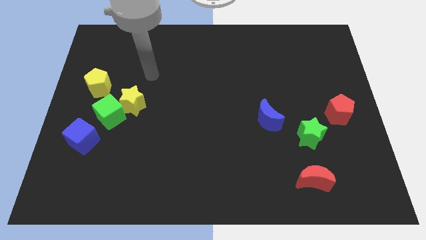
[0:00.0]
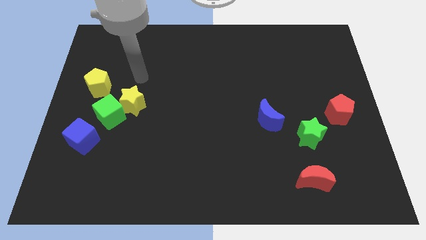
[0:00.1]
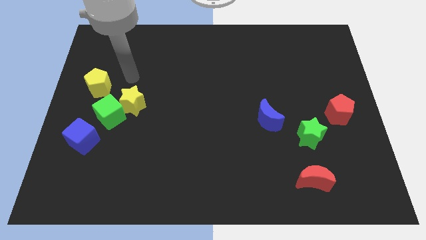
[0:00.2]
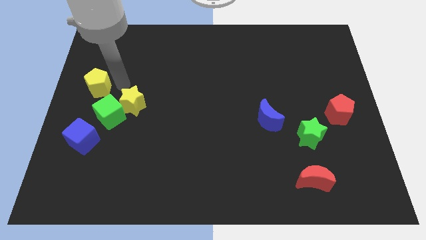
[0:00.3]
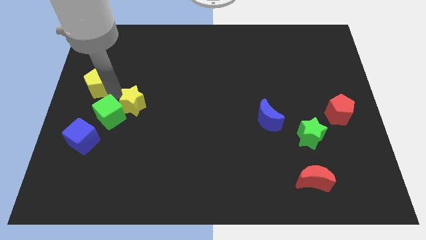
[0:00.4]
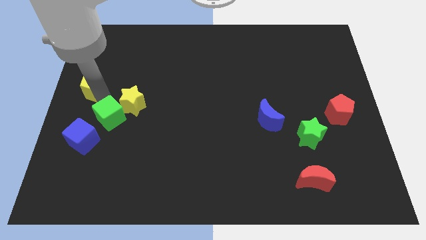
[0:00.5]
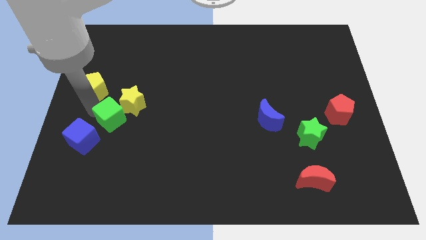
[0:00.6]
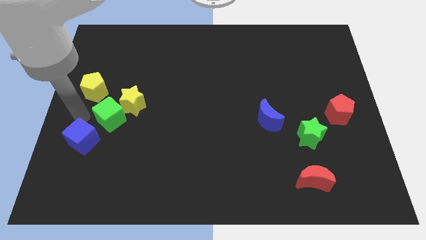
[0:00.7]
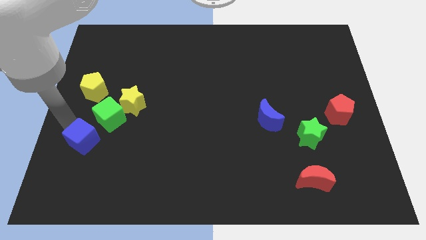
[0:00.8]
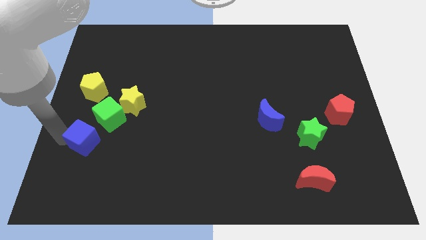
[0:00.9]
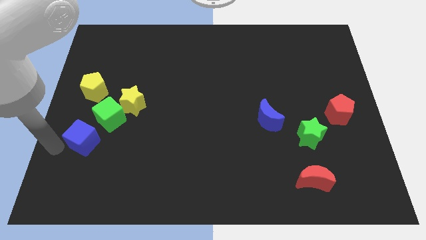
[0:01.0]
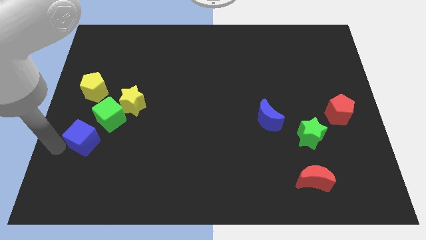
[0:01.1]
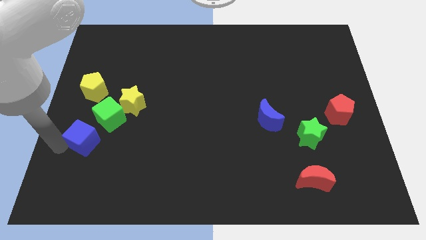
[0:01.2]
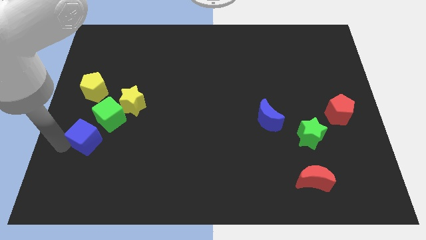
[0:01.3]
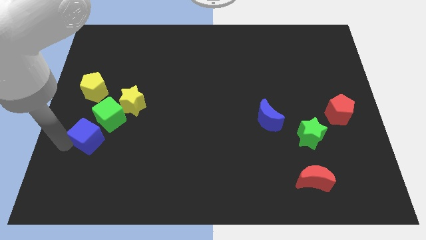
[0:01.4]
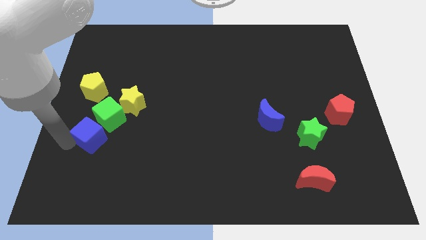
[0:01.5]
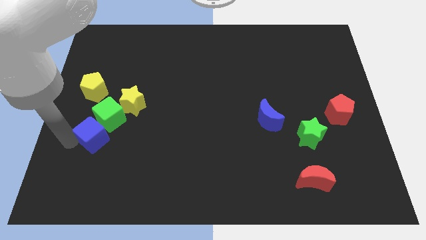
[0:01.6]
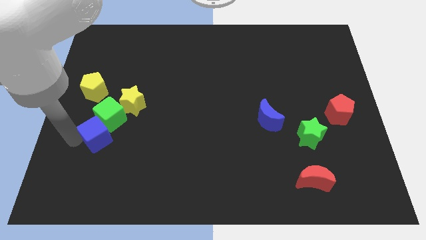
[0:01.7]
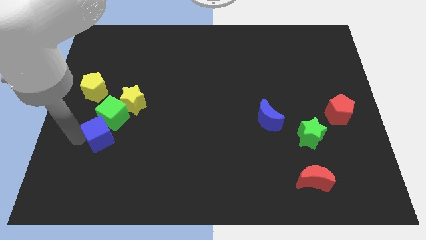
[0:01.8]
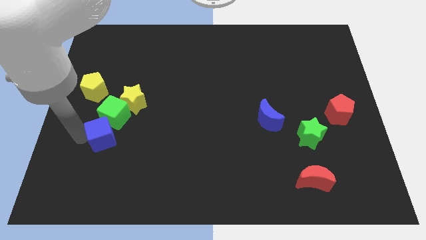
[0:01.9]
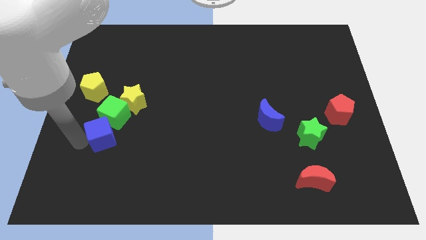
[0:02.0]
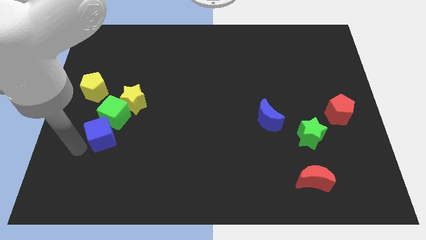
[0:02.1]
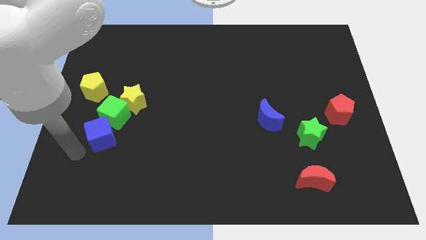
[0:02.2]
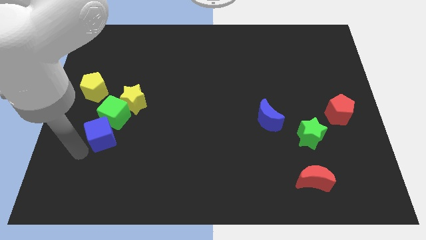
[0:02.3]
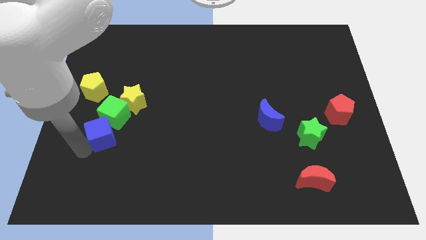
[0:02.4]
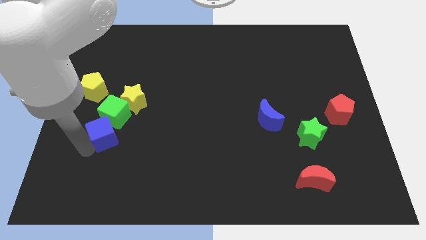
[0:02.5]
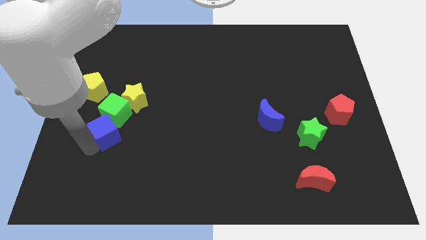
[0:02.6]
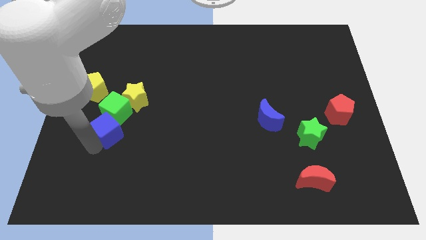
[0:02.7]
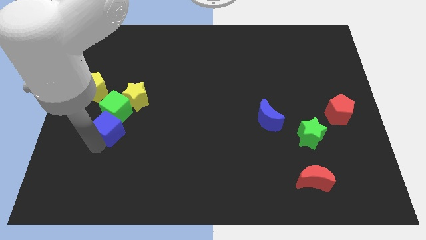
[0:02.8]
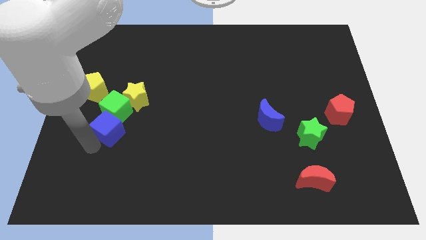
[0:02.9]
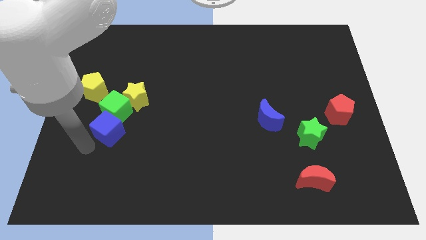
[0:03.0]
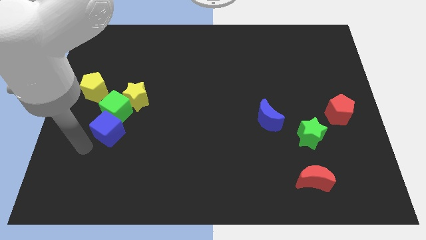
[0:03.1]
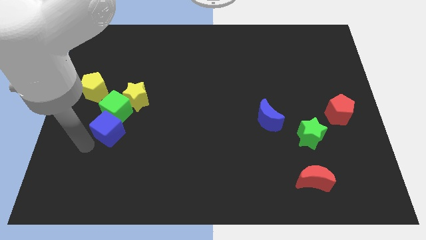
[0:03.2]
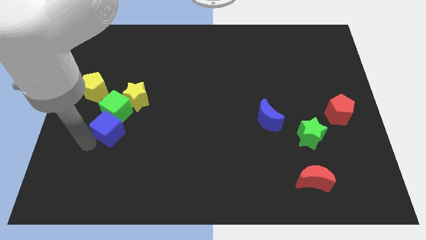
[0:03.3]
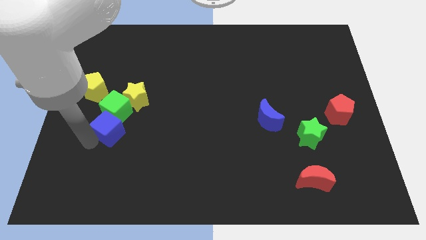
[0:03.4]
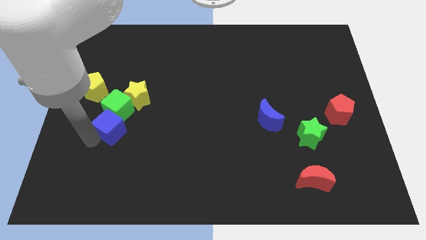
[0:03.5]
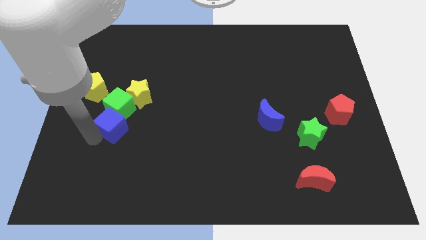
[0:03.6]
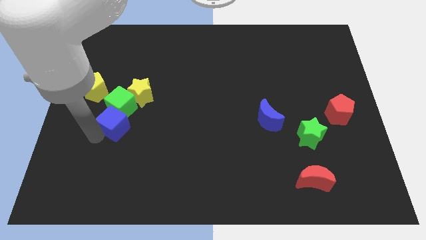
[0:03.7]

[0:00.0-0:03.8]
push the blue cube up and to the right a little

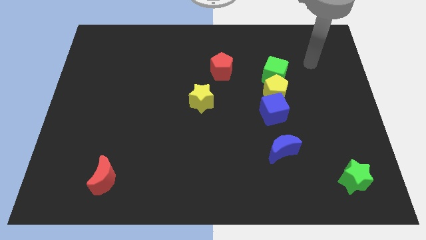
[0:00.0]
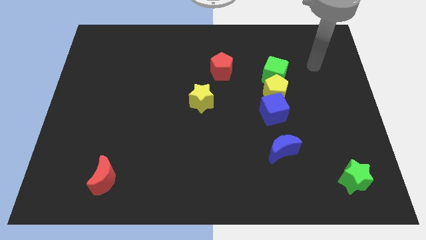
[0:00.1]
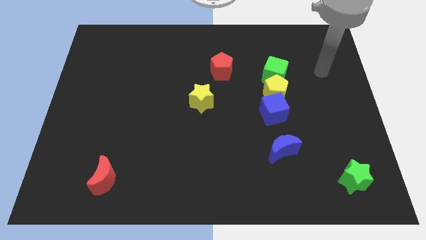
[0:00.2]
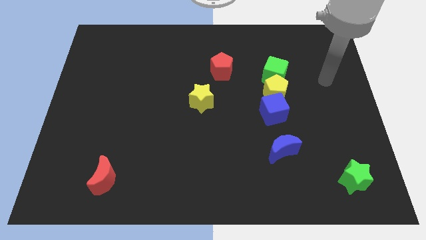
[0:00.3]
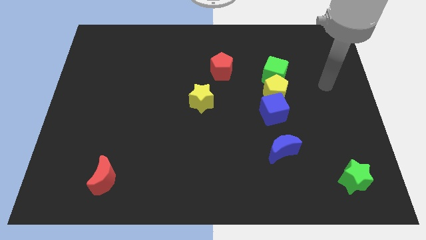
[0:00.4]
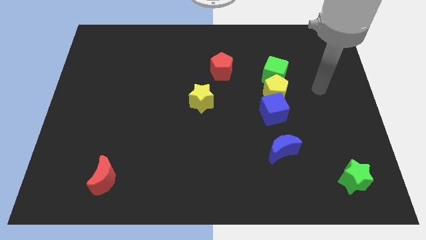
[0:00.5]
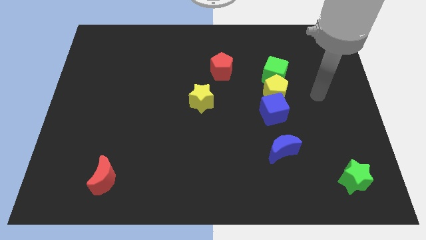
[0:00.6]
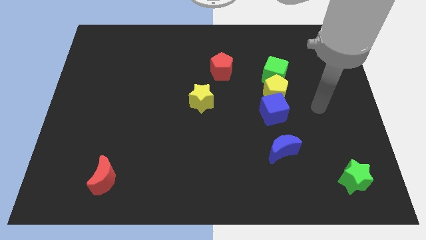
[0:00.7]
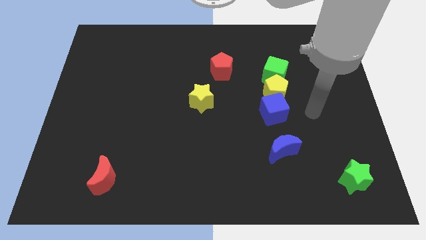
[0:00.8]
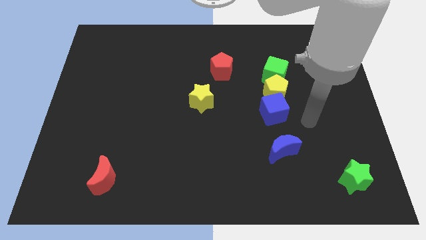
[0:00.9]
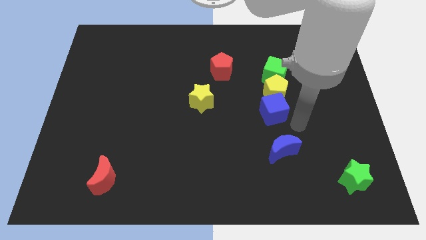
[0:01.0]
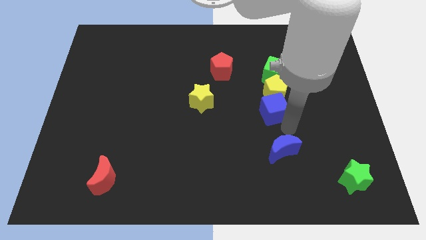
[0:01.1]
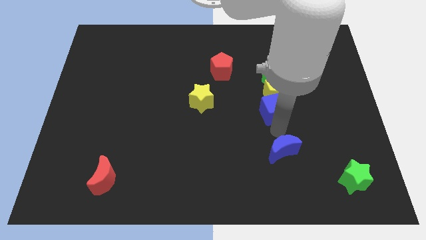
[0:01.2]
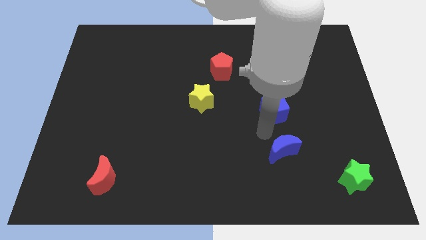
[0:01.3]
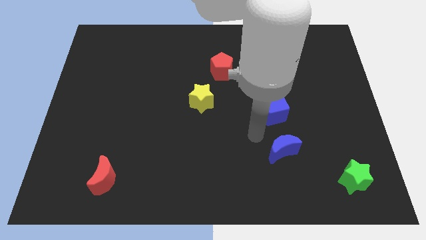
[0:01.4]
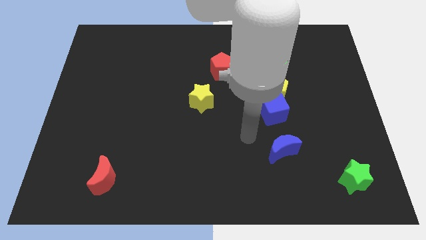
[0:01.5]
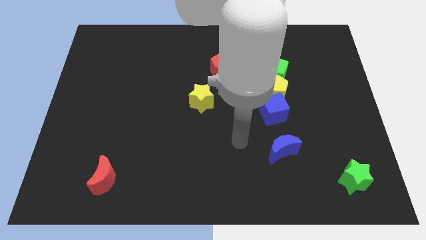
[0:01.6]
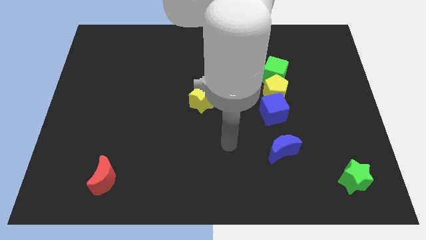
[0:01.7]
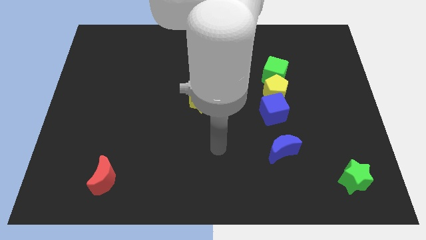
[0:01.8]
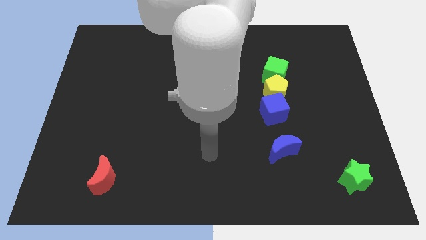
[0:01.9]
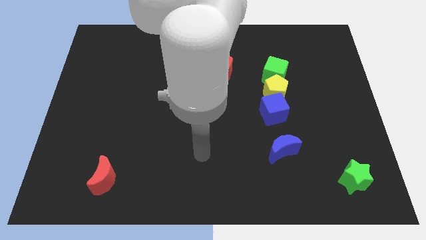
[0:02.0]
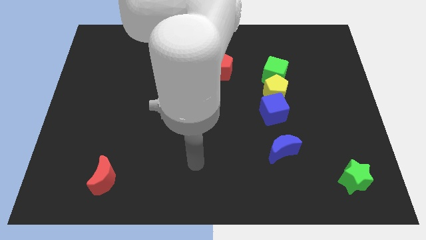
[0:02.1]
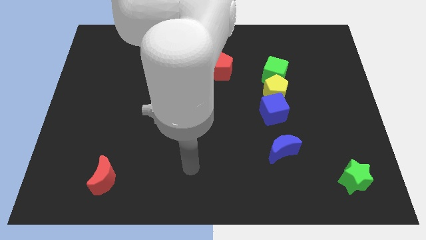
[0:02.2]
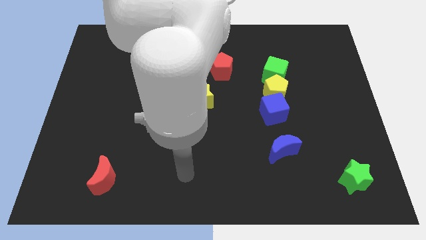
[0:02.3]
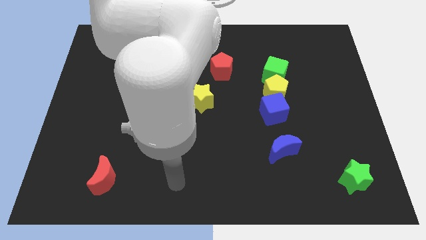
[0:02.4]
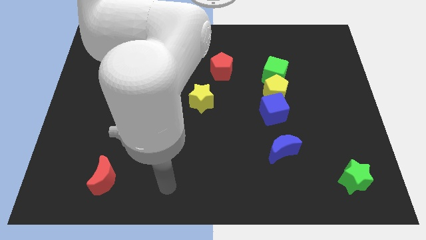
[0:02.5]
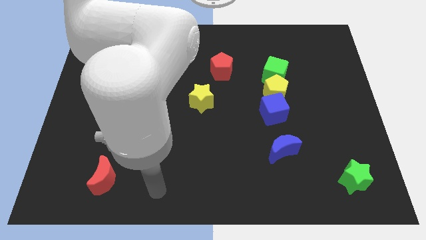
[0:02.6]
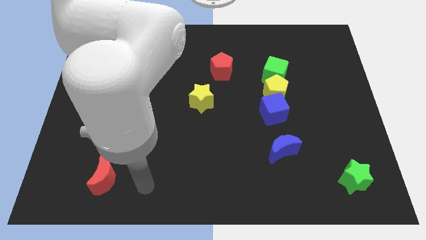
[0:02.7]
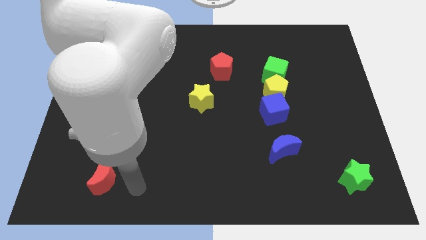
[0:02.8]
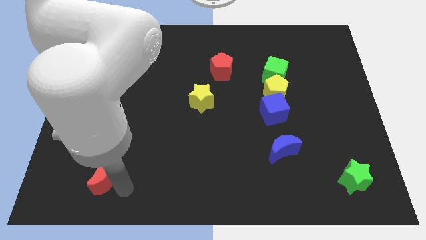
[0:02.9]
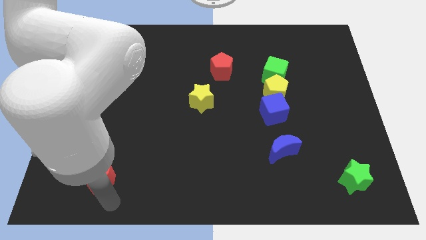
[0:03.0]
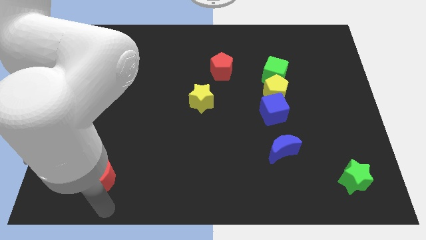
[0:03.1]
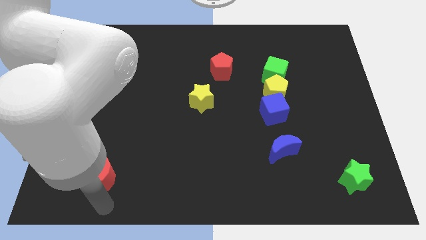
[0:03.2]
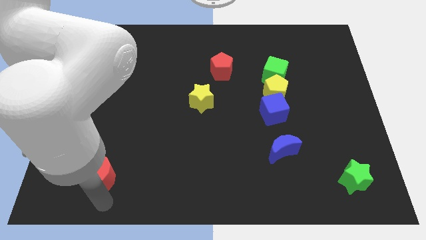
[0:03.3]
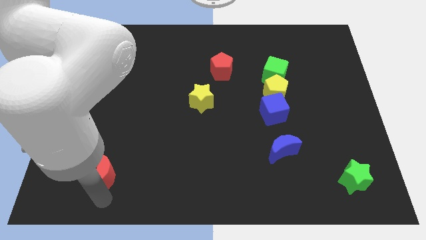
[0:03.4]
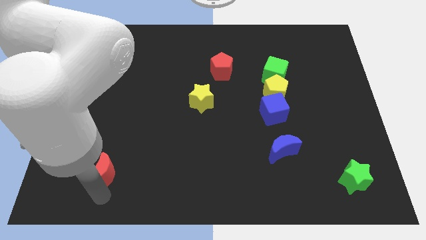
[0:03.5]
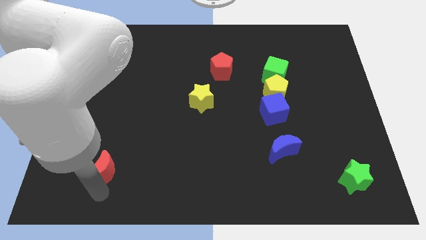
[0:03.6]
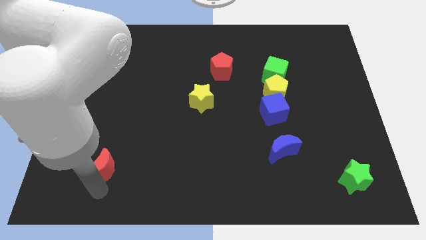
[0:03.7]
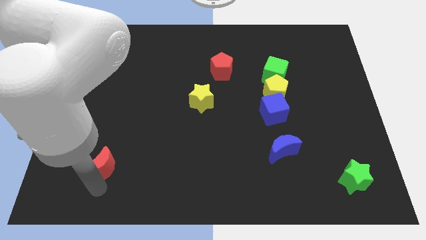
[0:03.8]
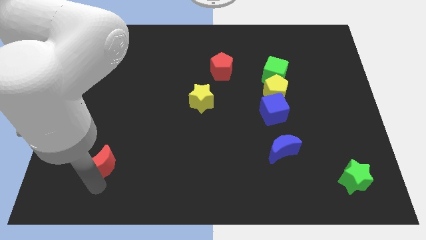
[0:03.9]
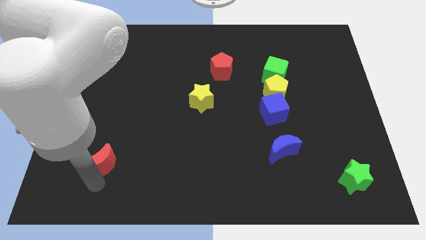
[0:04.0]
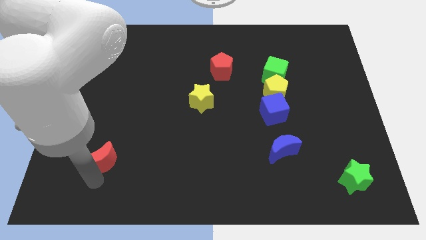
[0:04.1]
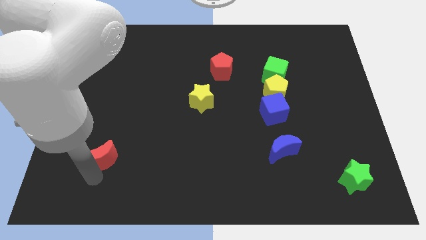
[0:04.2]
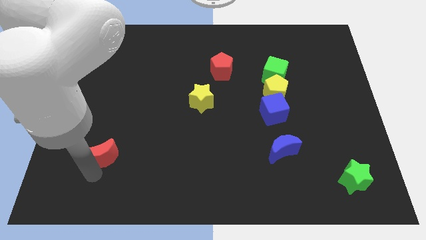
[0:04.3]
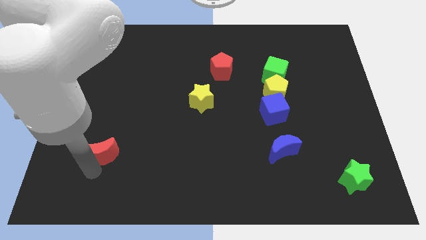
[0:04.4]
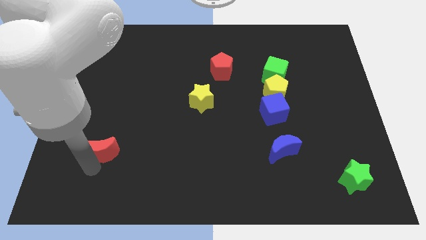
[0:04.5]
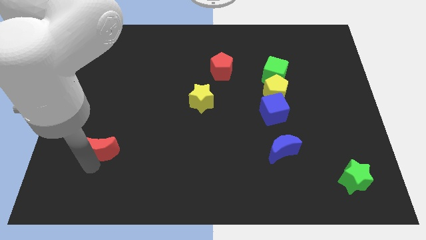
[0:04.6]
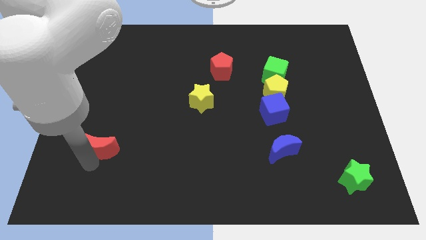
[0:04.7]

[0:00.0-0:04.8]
slide the red moon a little bit upwards
